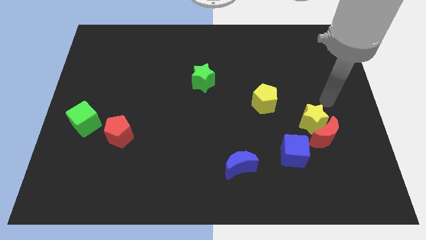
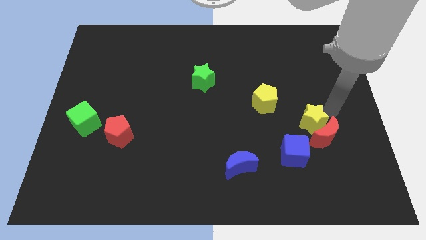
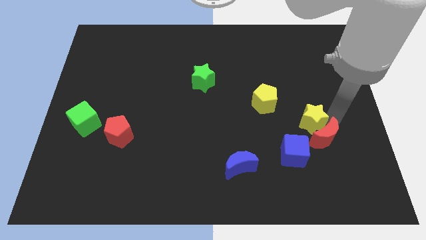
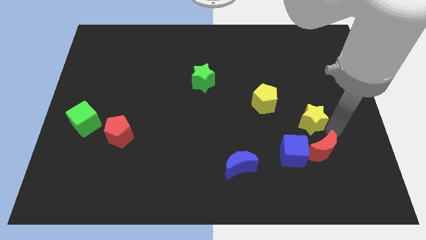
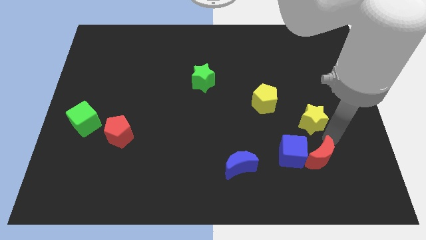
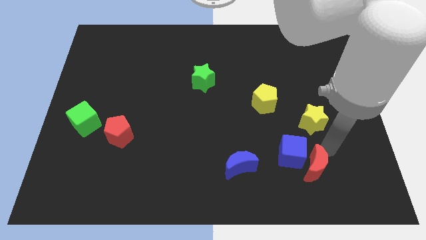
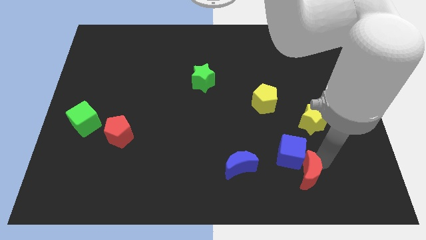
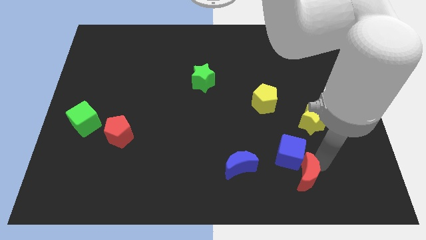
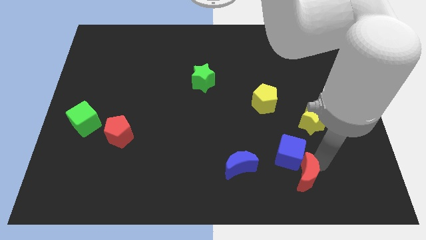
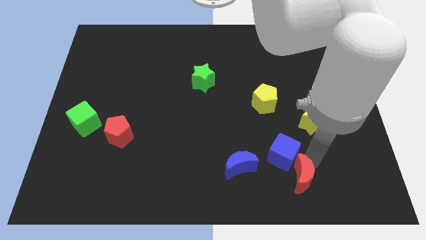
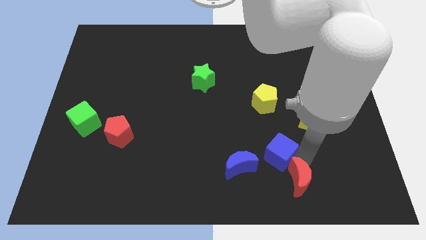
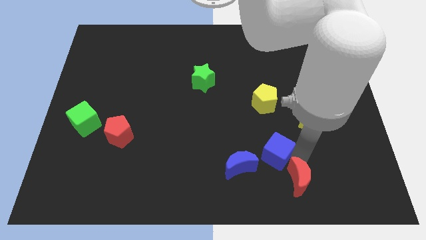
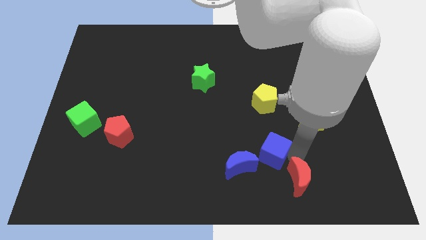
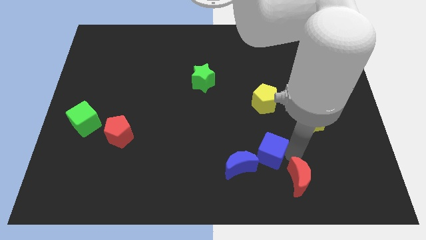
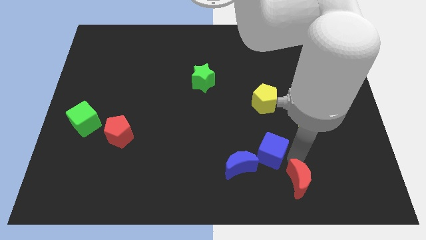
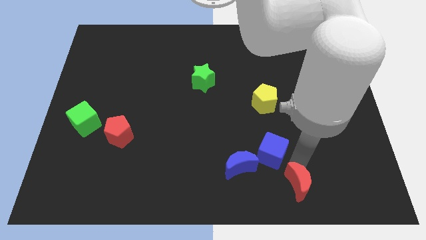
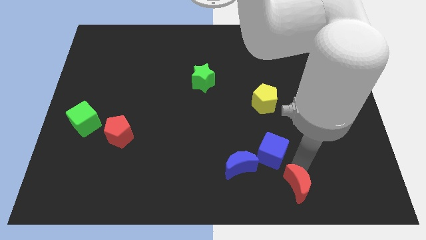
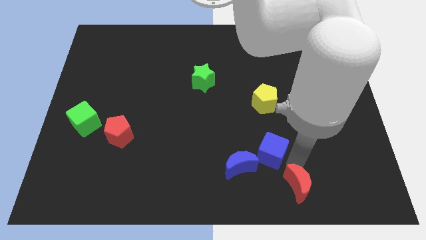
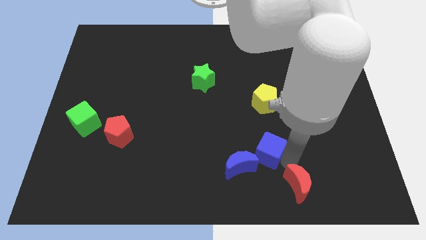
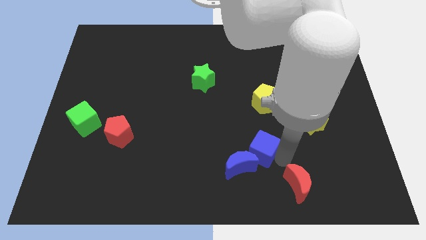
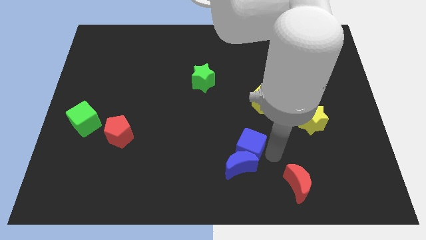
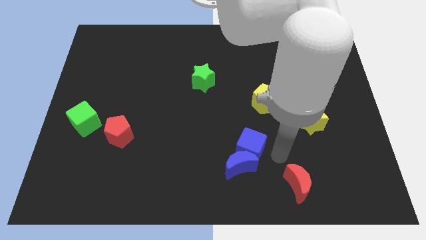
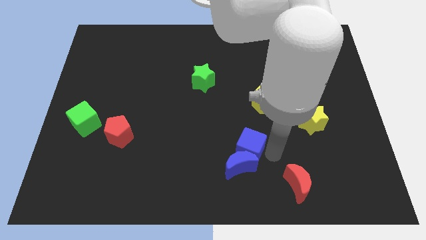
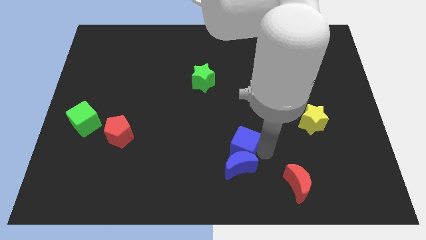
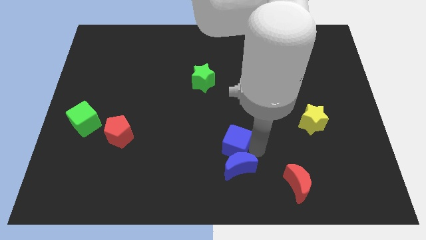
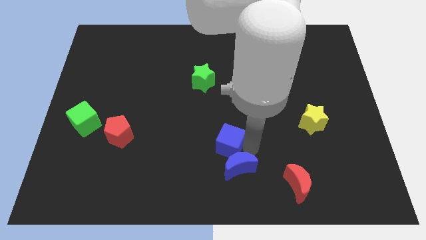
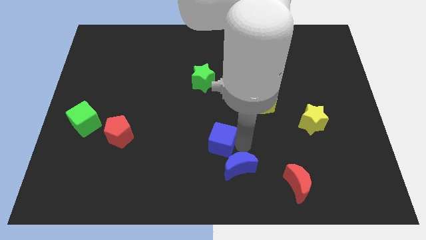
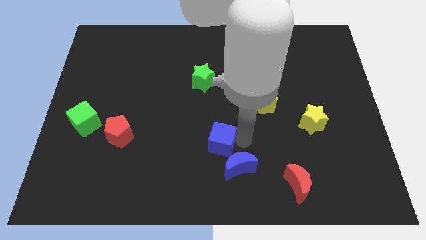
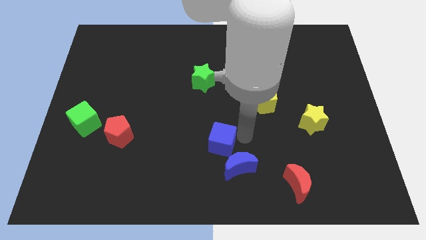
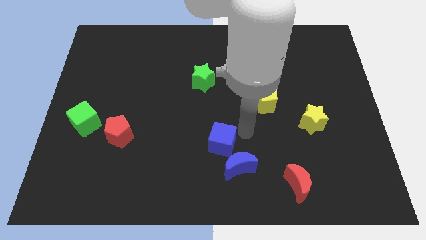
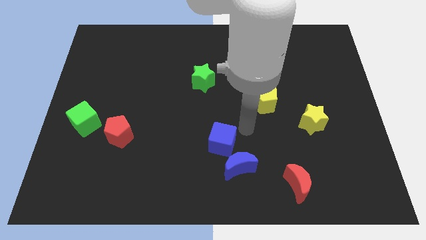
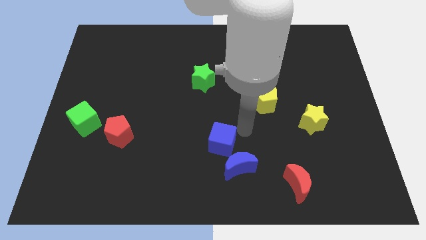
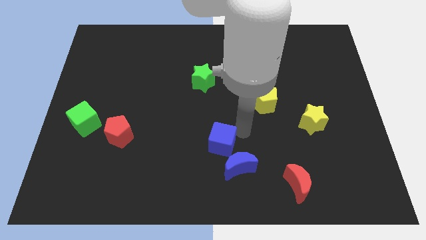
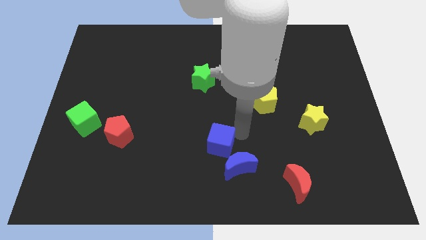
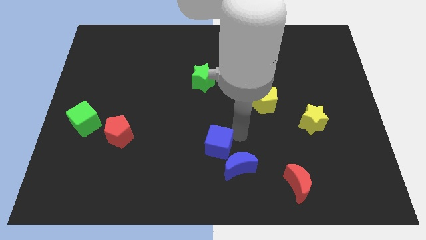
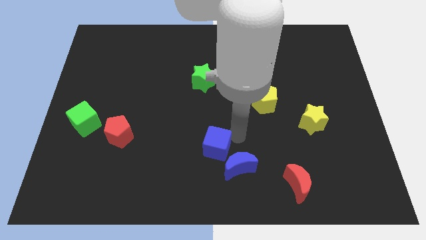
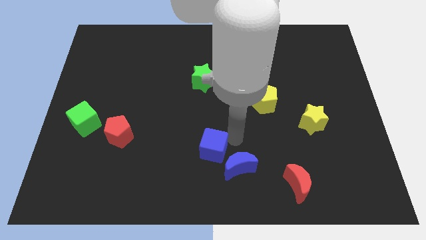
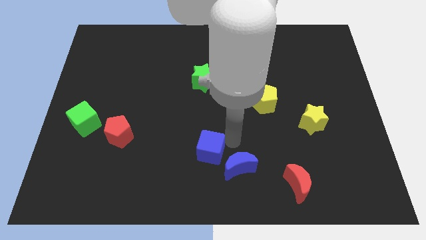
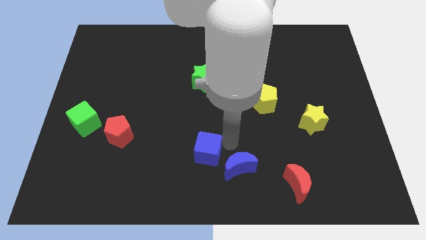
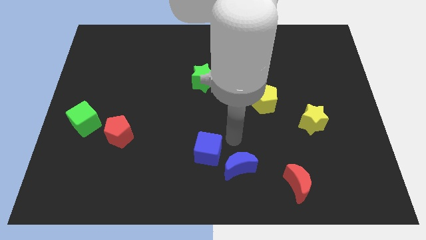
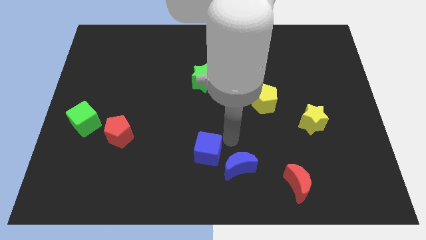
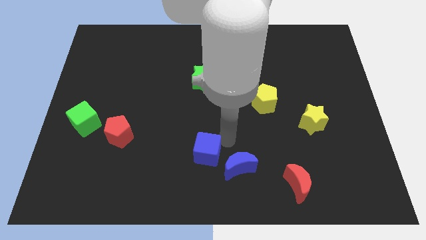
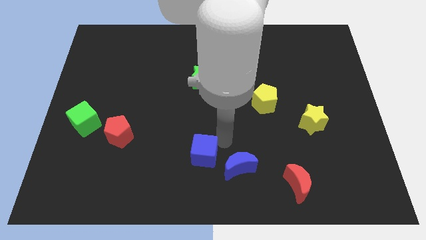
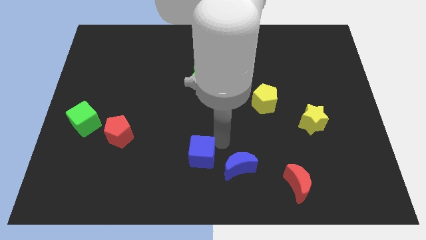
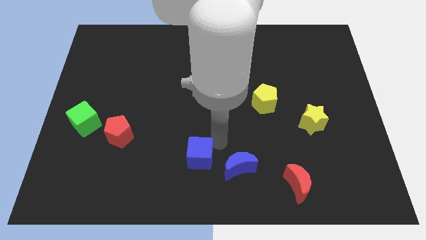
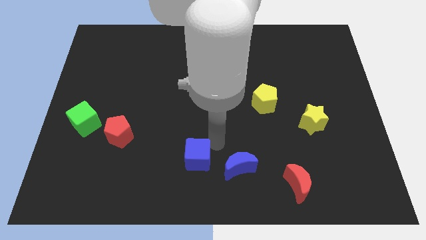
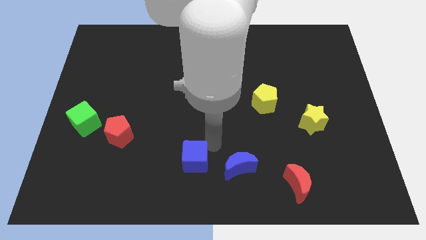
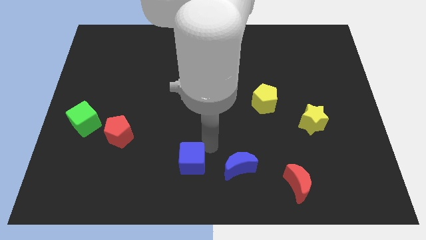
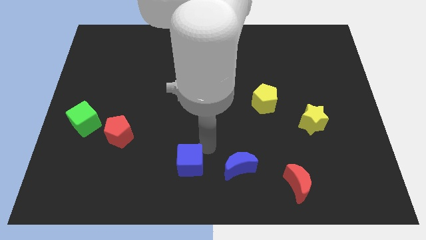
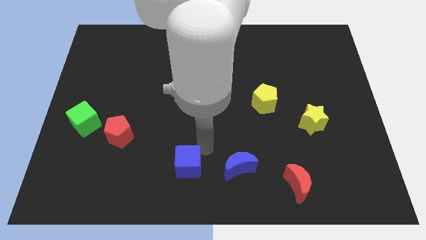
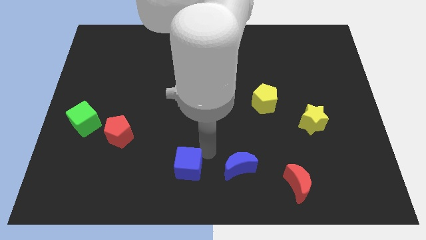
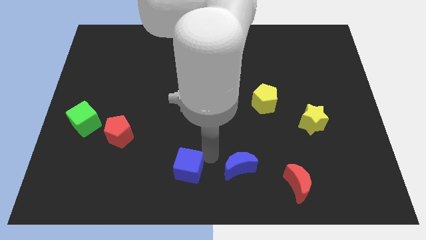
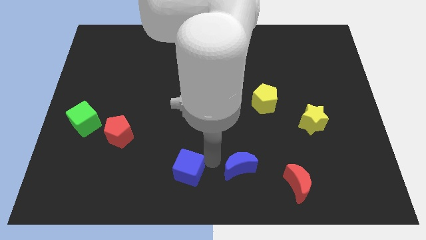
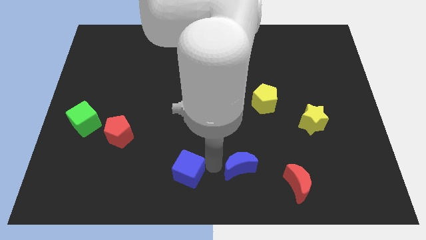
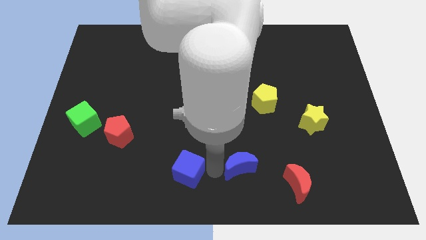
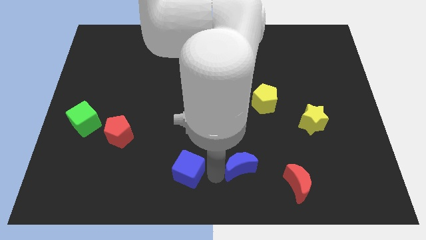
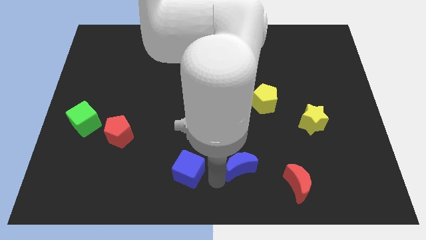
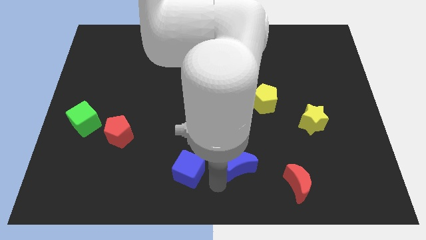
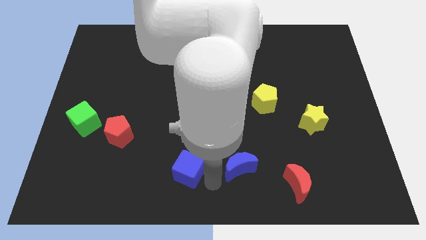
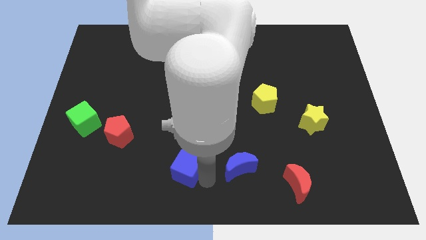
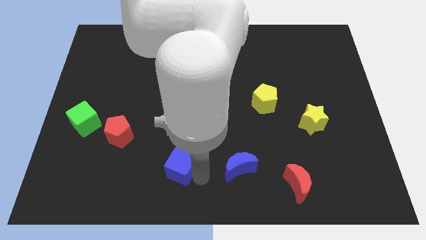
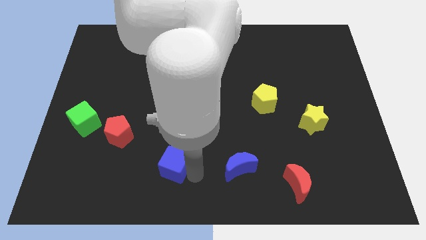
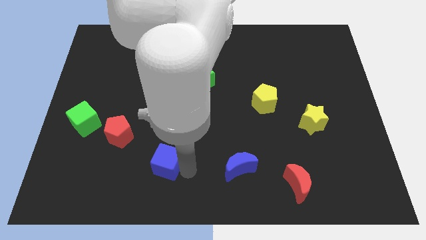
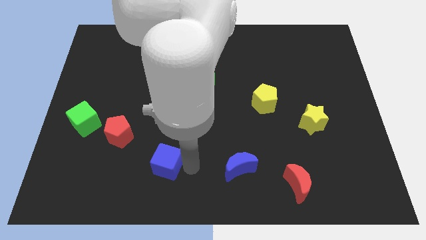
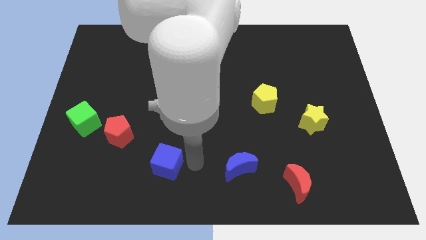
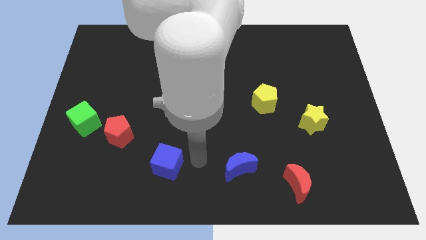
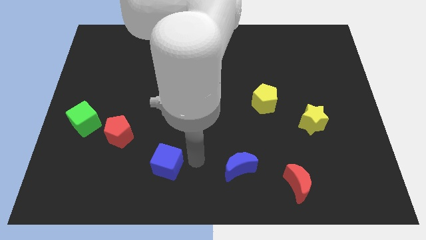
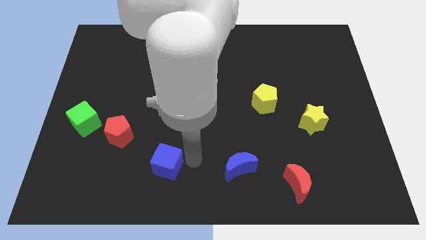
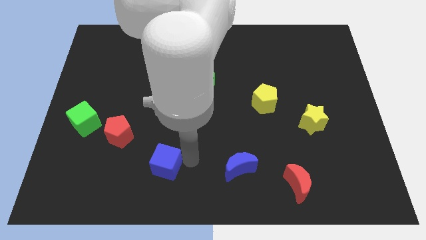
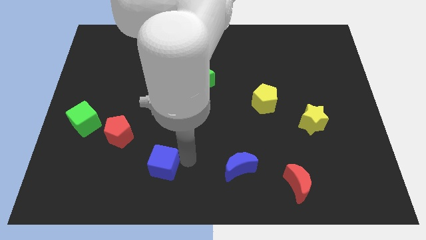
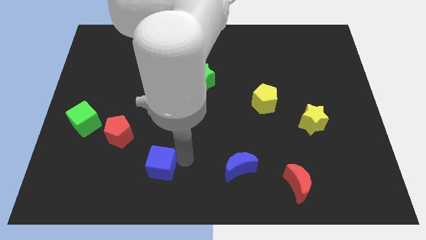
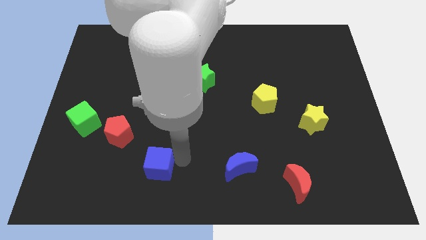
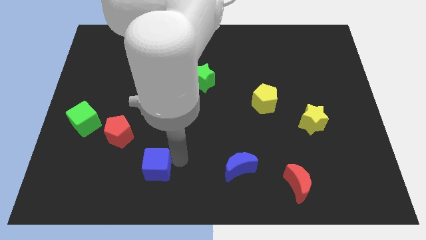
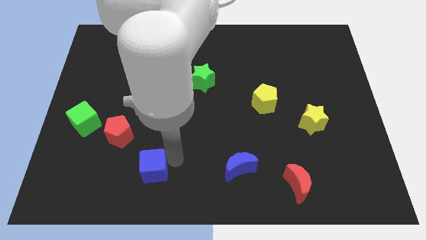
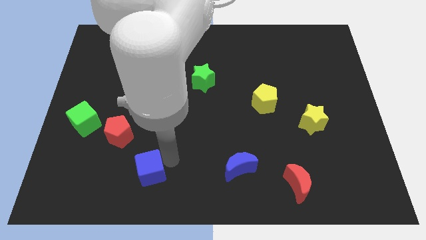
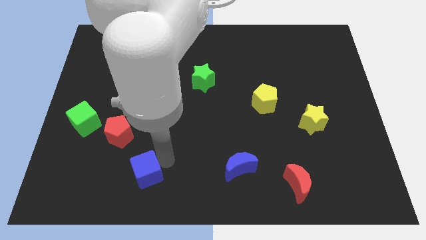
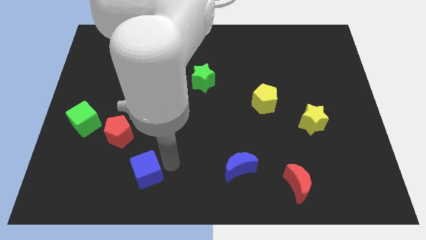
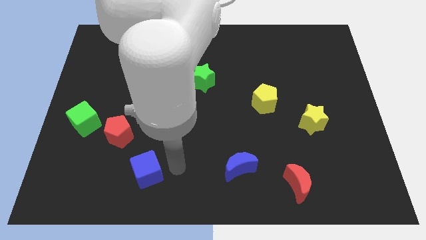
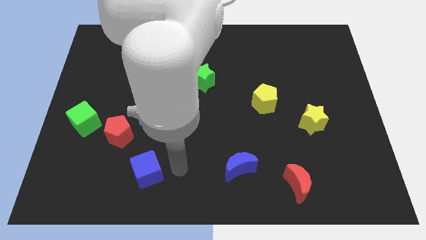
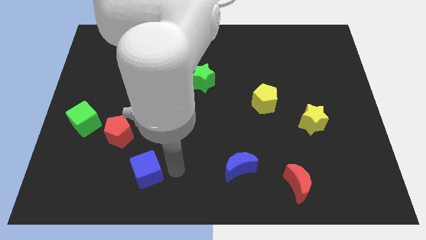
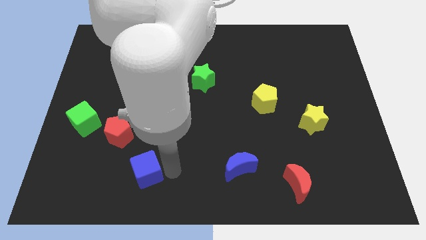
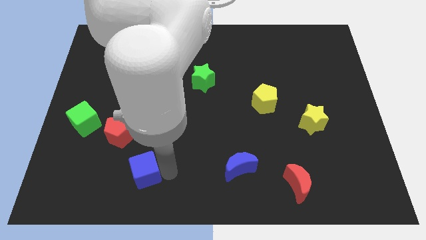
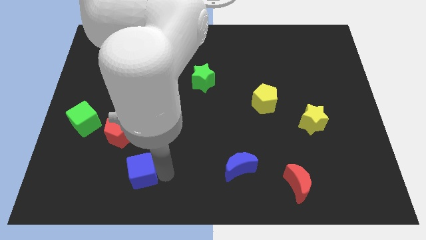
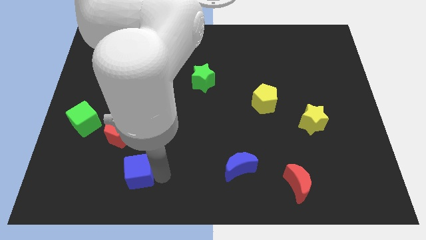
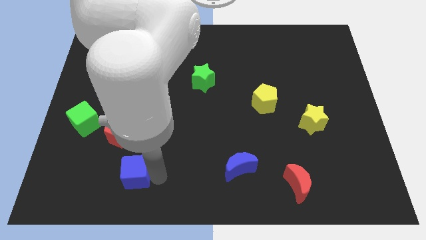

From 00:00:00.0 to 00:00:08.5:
put the blue cube below the red pentagon
